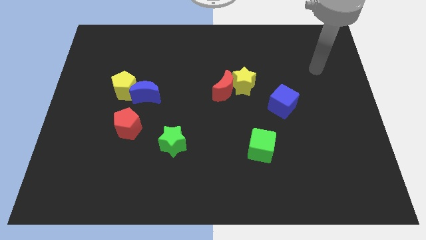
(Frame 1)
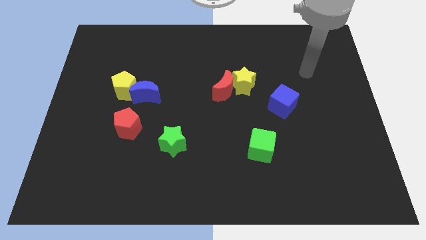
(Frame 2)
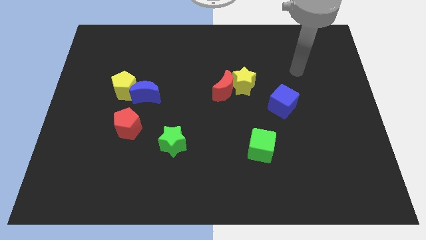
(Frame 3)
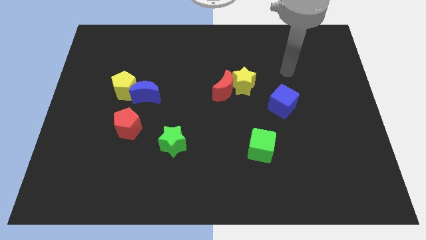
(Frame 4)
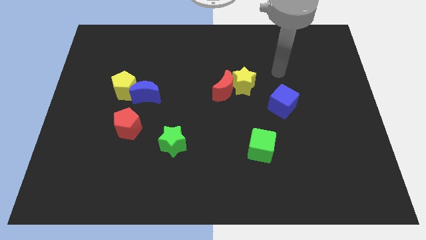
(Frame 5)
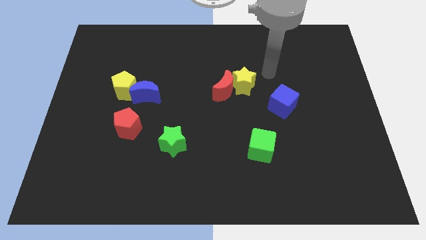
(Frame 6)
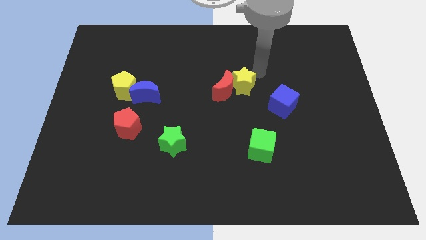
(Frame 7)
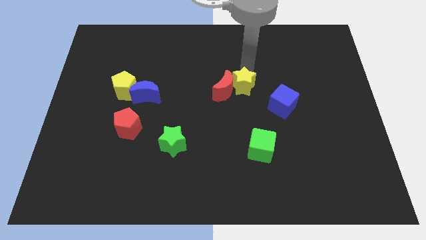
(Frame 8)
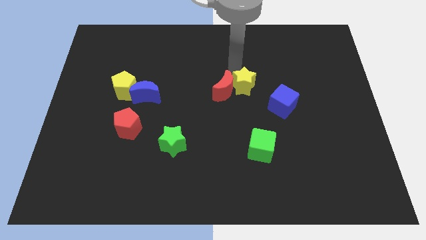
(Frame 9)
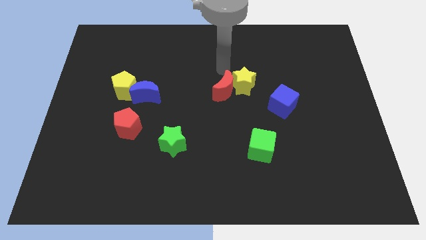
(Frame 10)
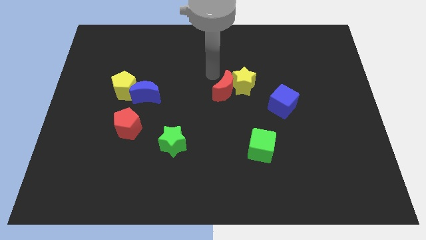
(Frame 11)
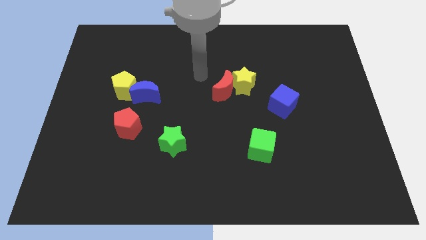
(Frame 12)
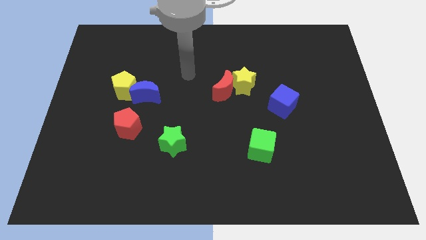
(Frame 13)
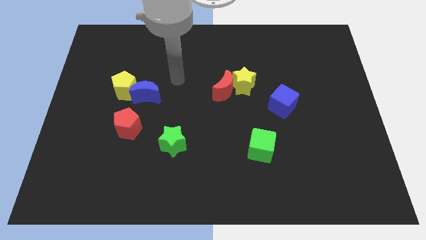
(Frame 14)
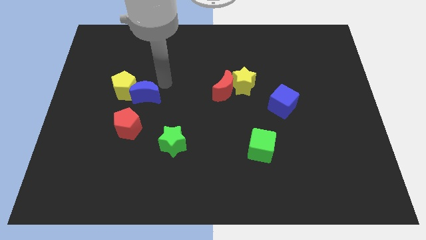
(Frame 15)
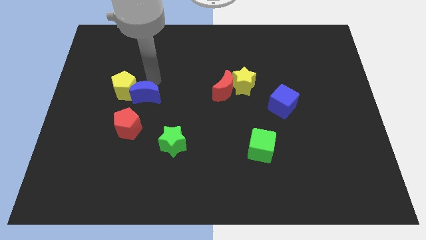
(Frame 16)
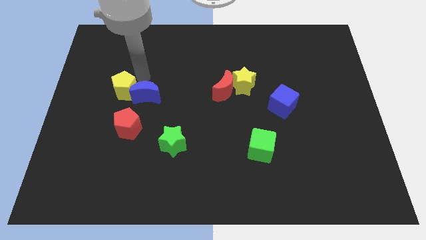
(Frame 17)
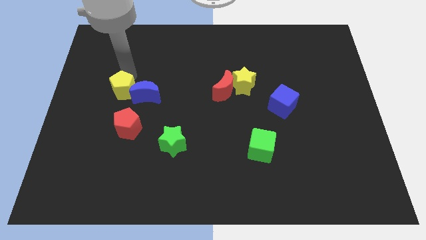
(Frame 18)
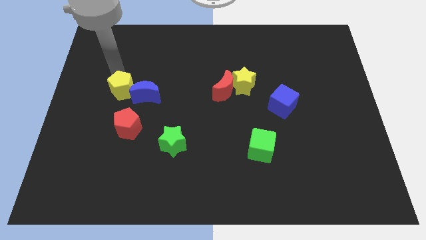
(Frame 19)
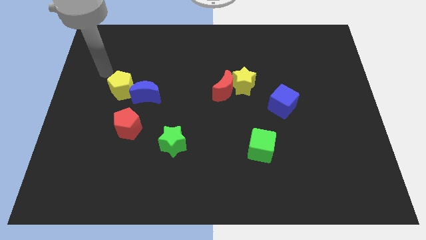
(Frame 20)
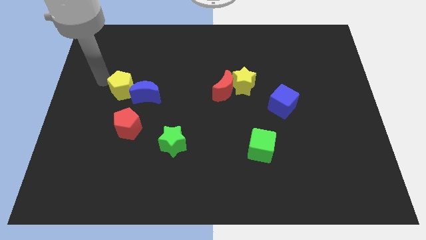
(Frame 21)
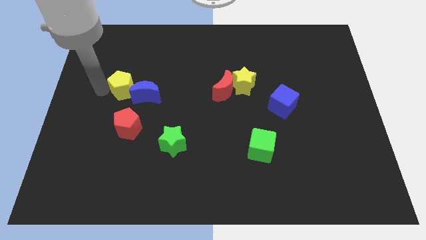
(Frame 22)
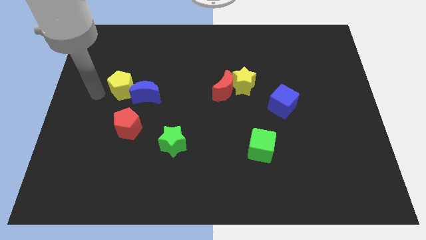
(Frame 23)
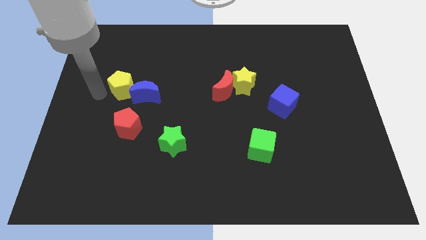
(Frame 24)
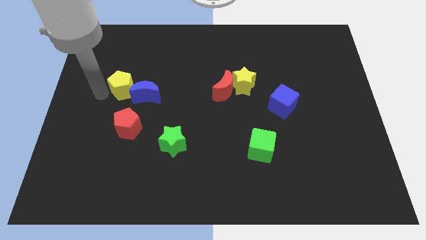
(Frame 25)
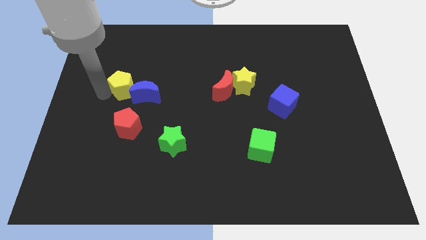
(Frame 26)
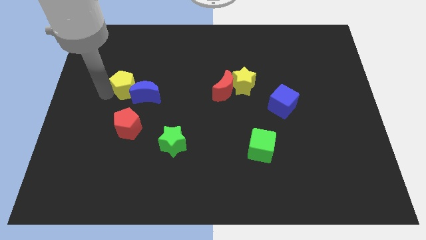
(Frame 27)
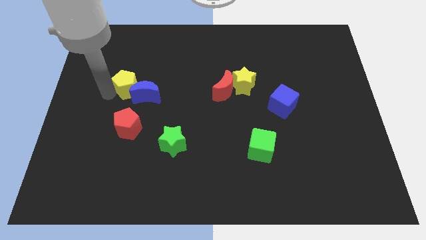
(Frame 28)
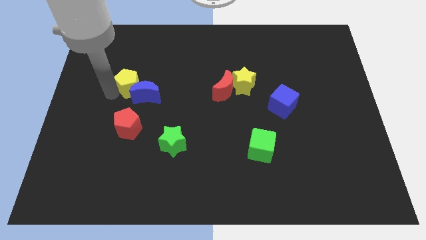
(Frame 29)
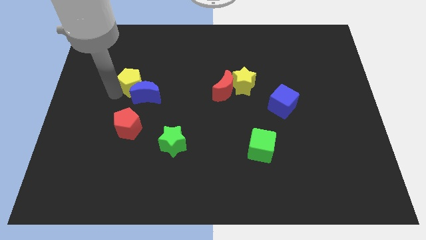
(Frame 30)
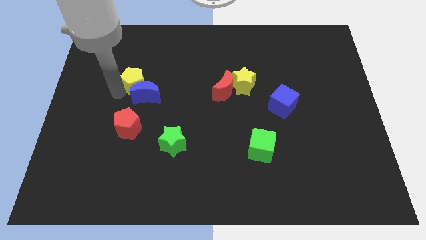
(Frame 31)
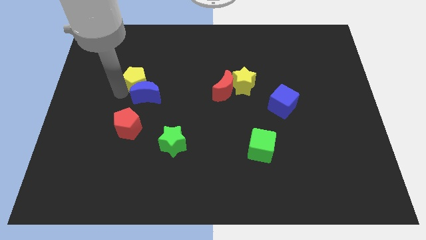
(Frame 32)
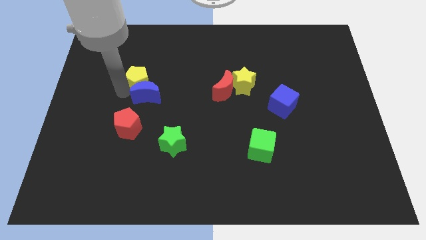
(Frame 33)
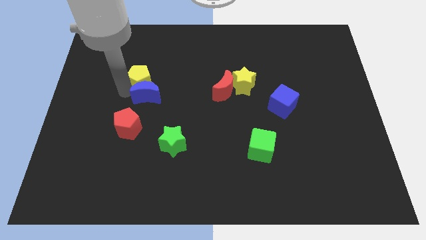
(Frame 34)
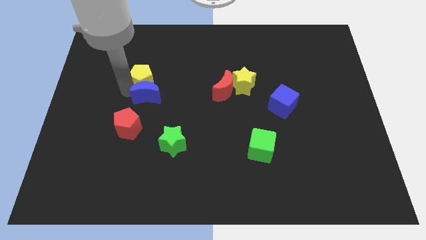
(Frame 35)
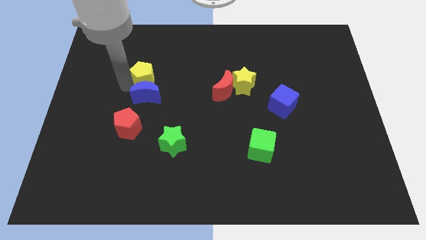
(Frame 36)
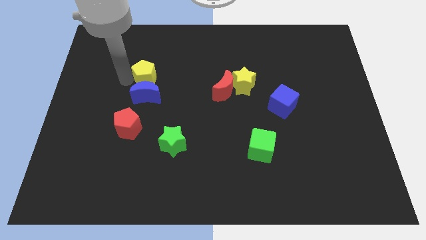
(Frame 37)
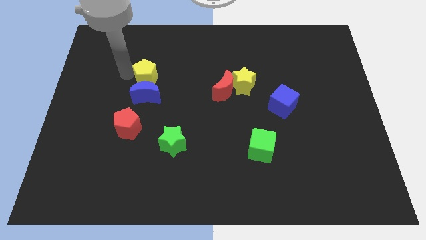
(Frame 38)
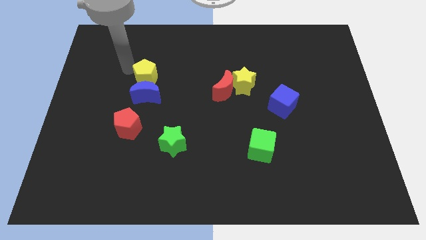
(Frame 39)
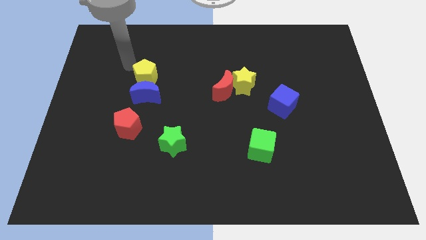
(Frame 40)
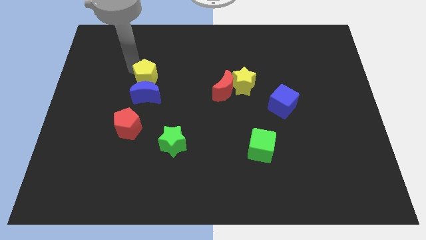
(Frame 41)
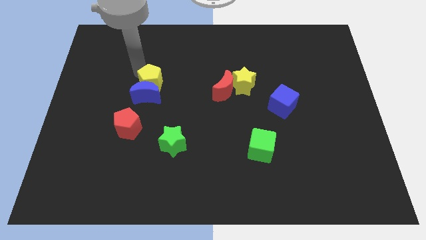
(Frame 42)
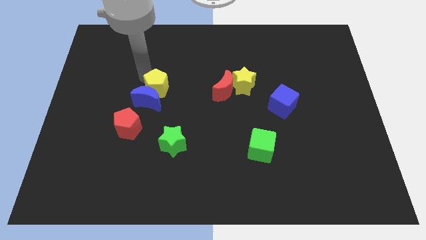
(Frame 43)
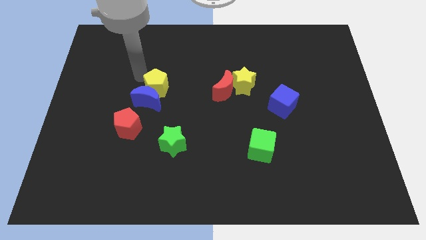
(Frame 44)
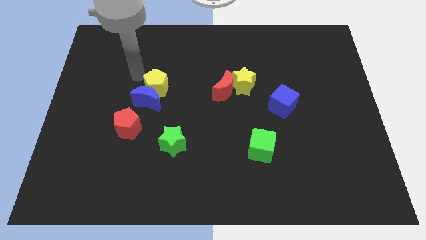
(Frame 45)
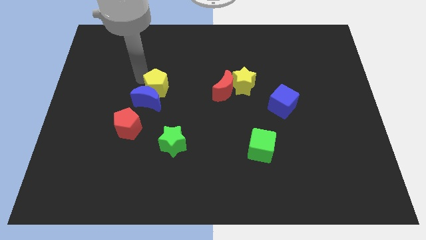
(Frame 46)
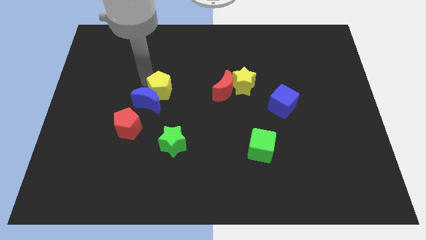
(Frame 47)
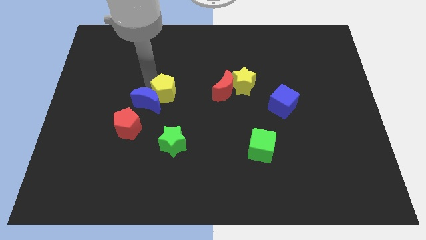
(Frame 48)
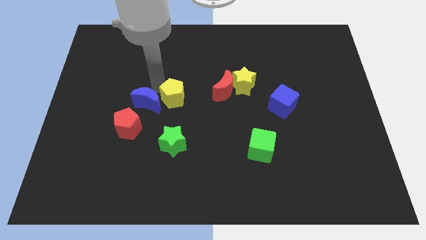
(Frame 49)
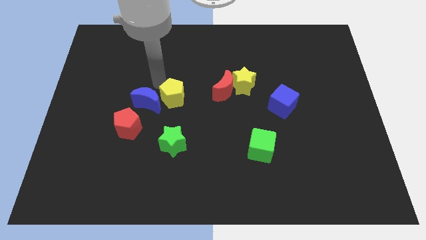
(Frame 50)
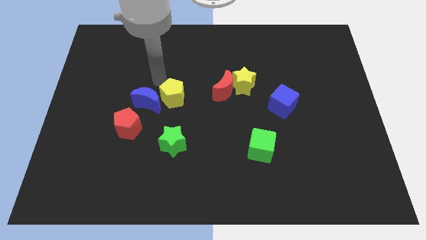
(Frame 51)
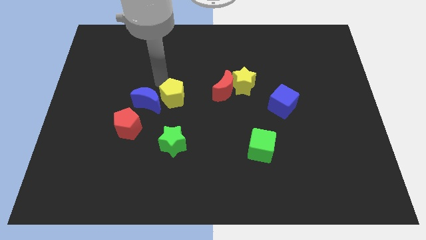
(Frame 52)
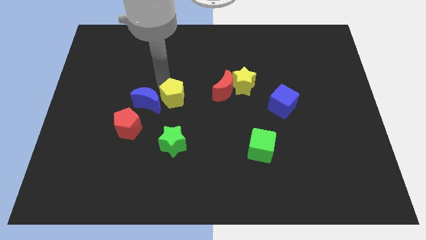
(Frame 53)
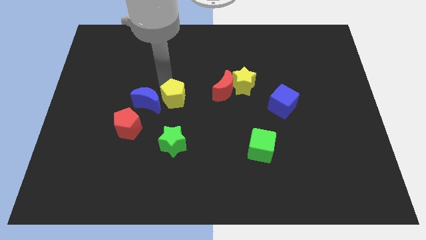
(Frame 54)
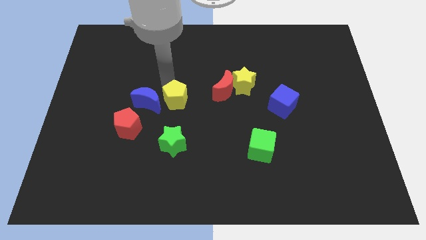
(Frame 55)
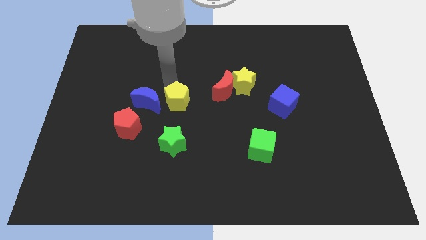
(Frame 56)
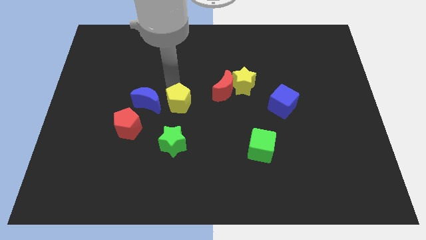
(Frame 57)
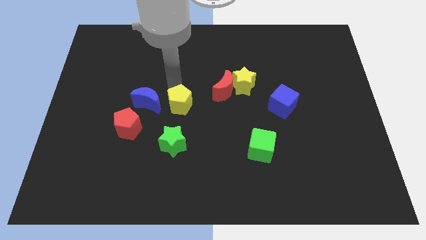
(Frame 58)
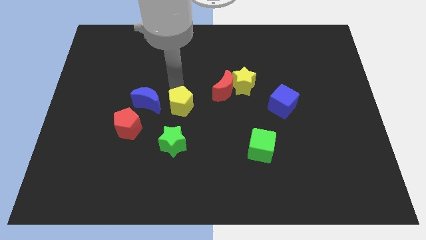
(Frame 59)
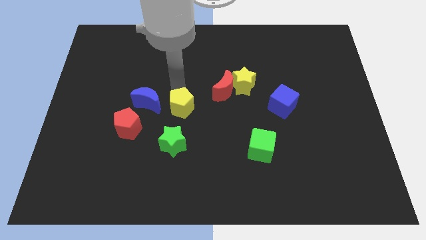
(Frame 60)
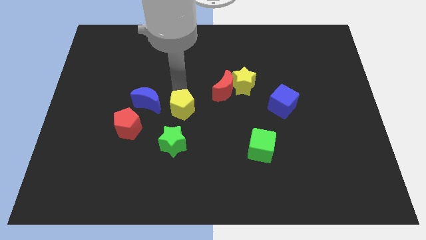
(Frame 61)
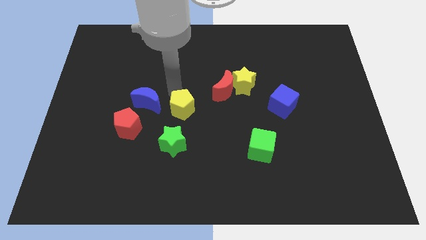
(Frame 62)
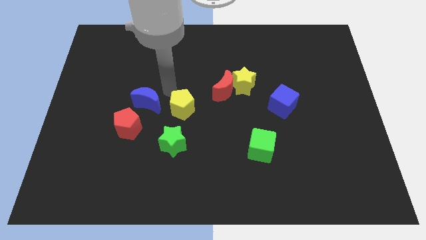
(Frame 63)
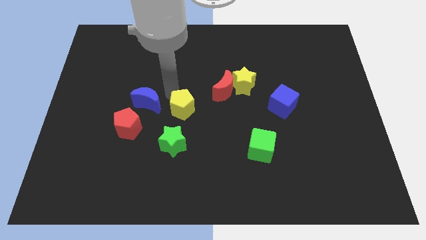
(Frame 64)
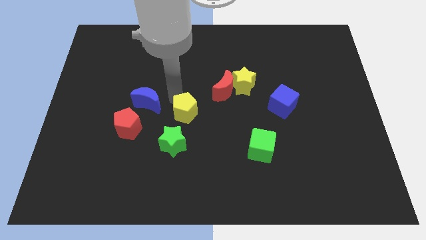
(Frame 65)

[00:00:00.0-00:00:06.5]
slide the yellow pentagon to the top right of the green star
